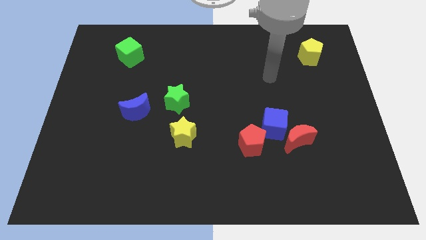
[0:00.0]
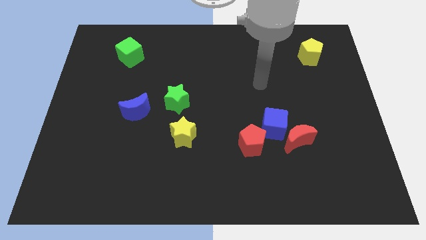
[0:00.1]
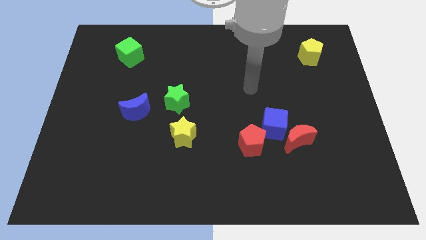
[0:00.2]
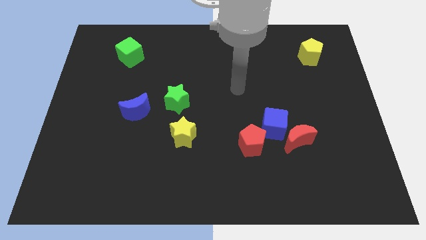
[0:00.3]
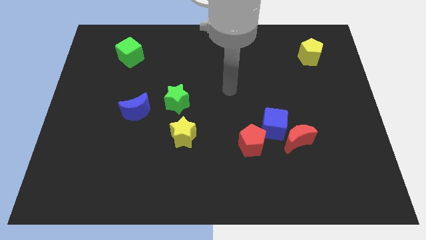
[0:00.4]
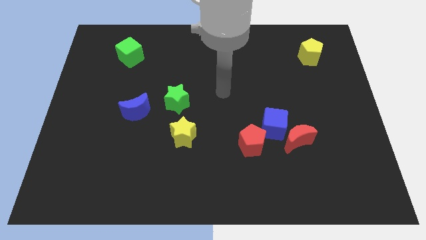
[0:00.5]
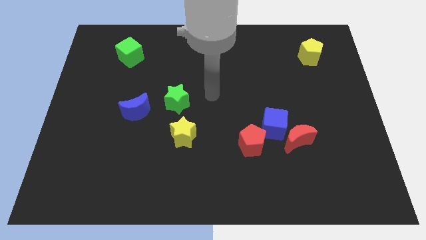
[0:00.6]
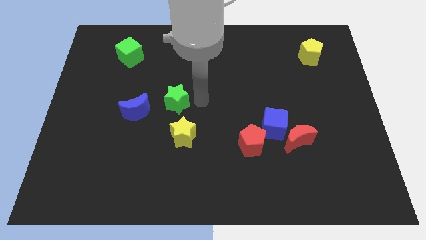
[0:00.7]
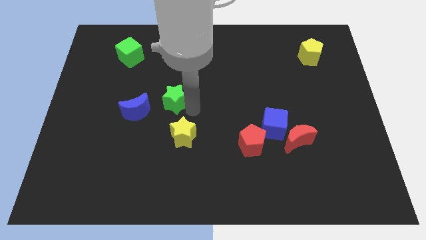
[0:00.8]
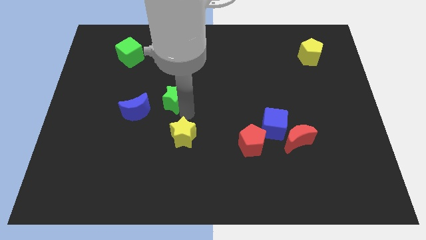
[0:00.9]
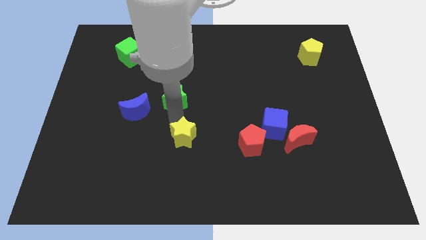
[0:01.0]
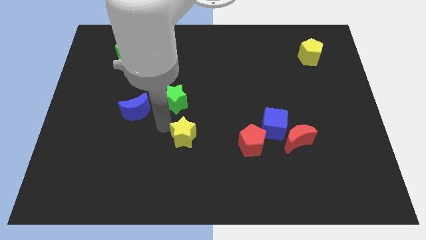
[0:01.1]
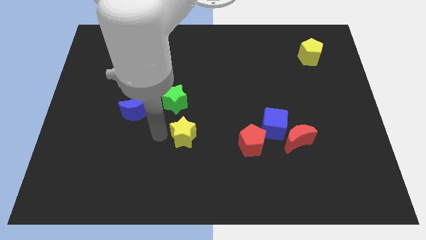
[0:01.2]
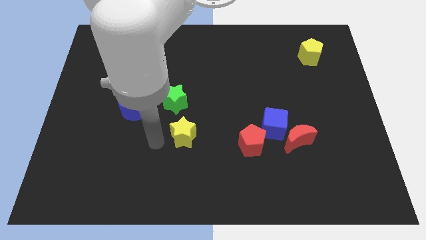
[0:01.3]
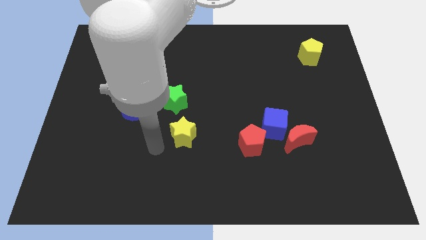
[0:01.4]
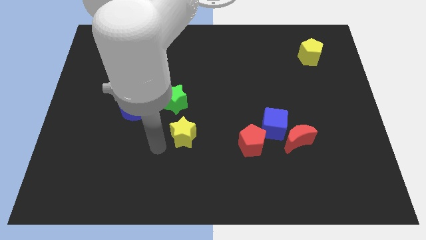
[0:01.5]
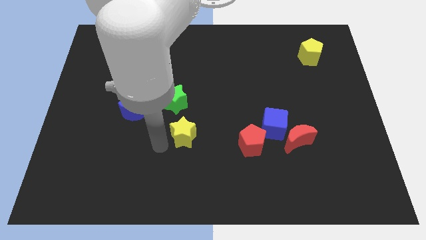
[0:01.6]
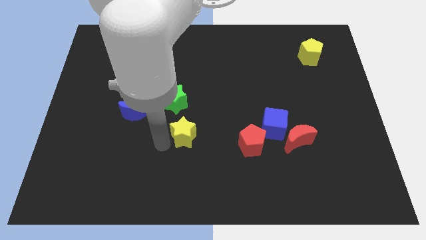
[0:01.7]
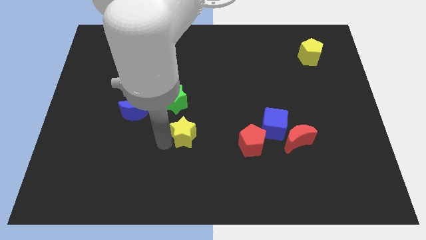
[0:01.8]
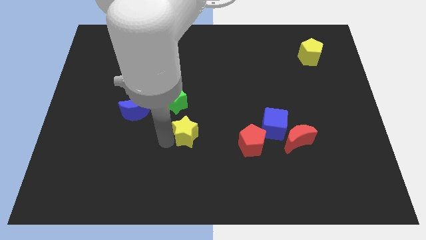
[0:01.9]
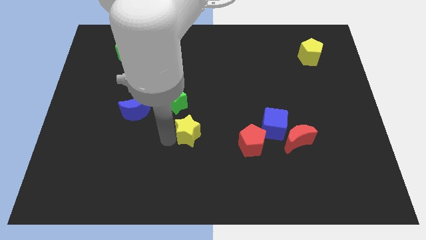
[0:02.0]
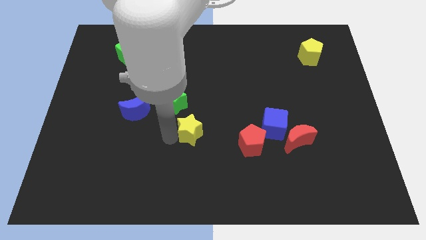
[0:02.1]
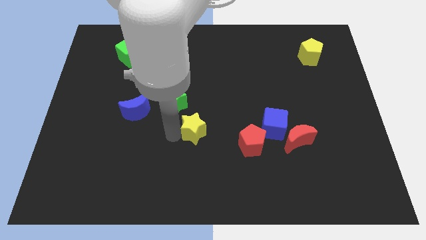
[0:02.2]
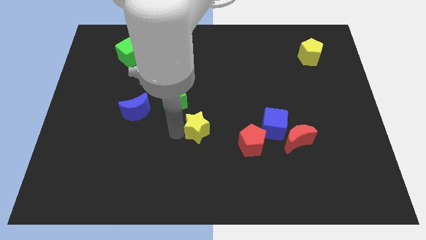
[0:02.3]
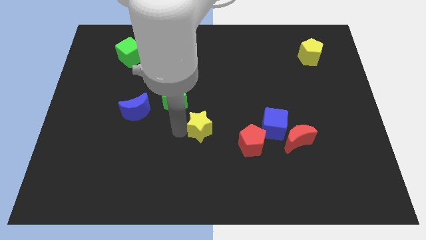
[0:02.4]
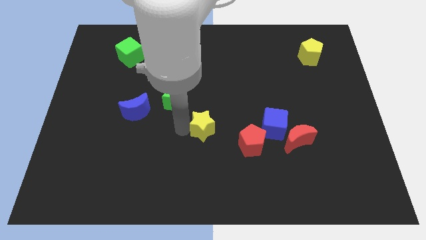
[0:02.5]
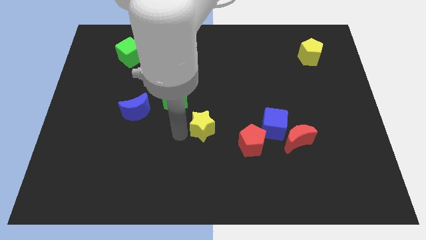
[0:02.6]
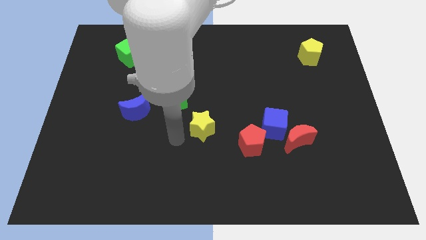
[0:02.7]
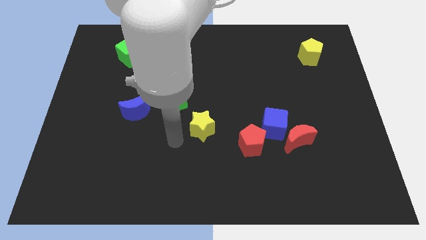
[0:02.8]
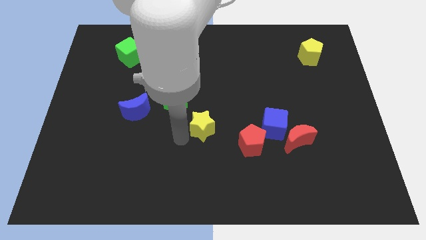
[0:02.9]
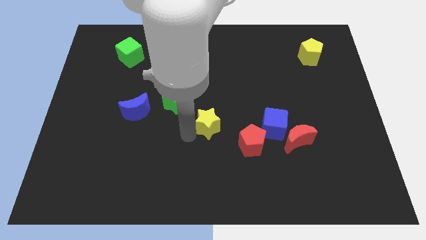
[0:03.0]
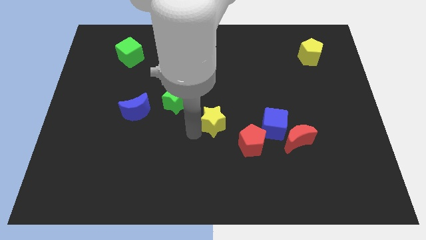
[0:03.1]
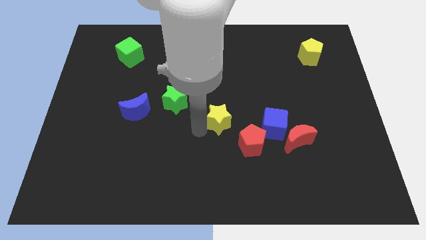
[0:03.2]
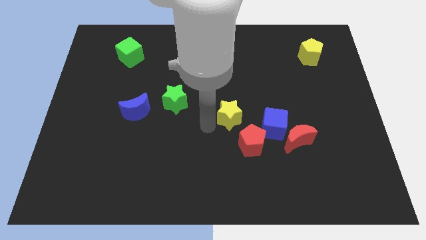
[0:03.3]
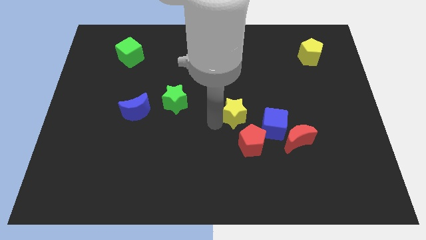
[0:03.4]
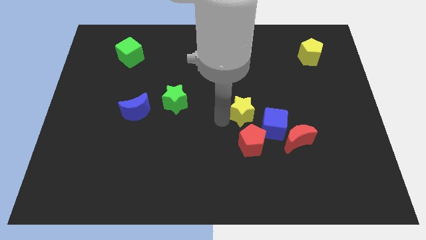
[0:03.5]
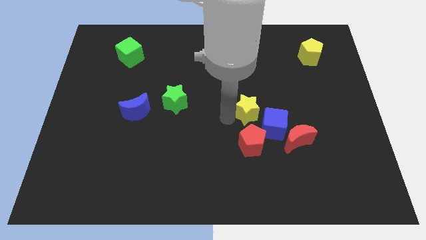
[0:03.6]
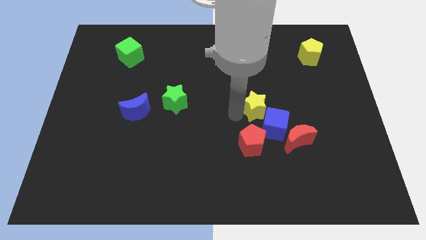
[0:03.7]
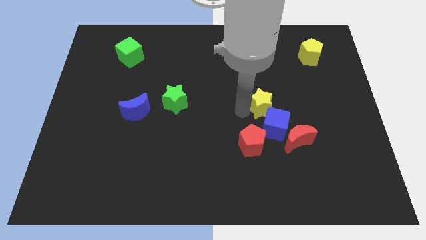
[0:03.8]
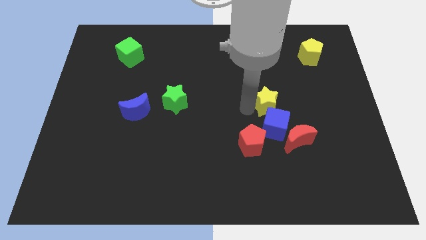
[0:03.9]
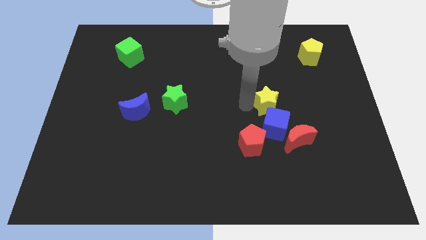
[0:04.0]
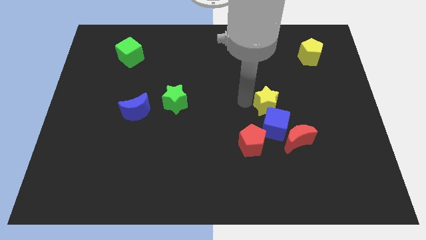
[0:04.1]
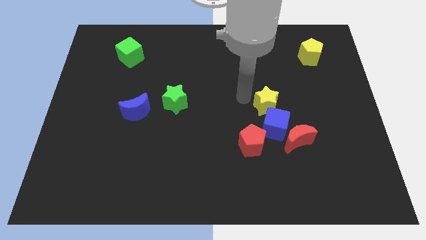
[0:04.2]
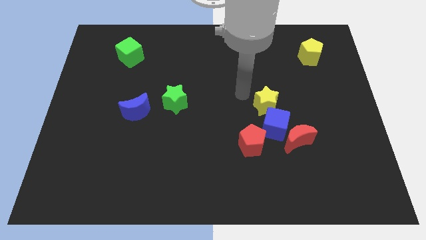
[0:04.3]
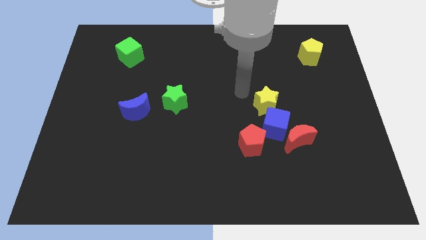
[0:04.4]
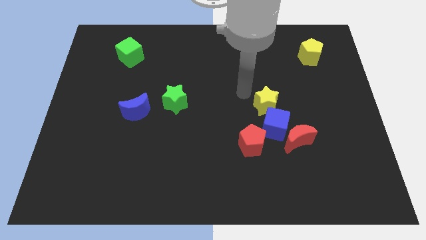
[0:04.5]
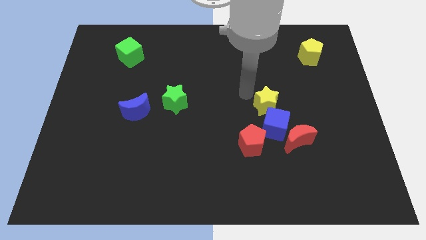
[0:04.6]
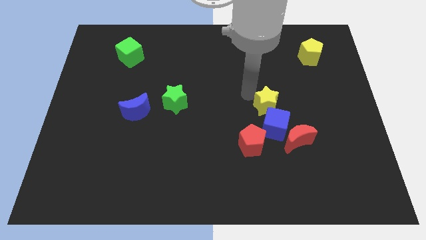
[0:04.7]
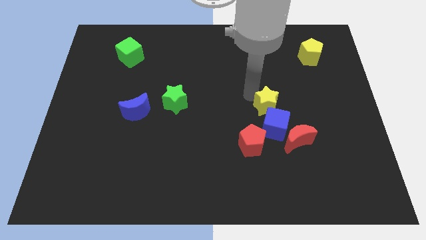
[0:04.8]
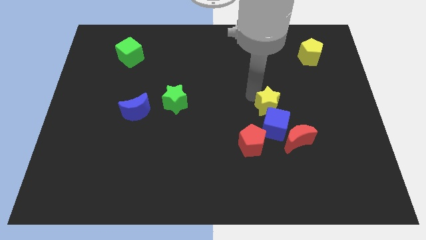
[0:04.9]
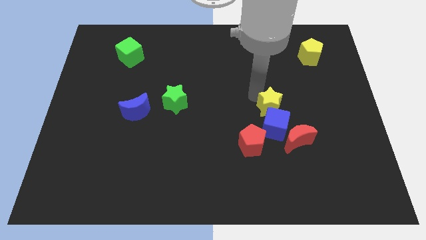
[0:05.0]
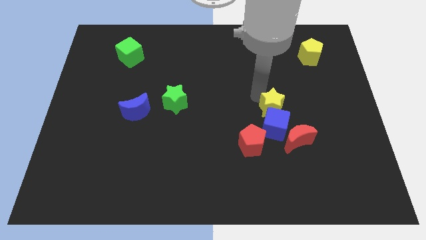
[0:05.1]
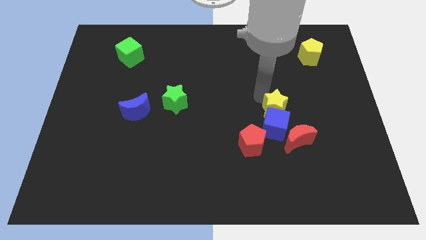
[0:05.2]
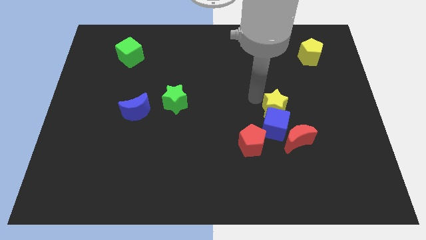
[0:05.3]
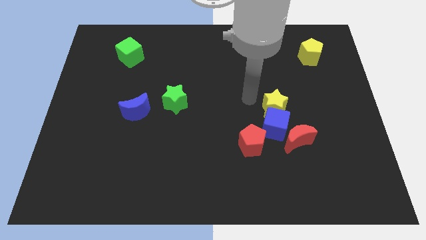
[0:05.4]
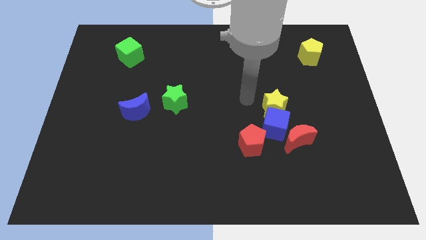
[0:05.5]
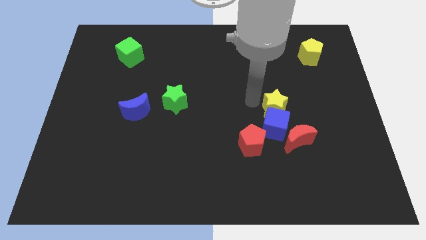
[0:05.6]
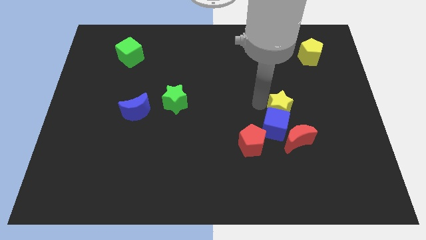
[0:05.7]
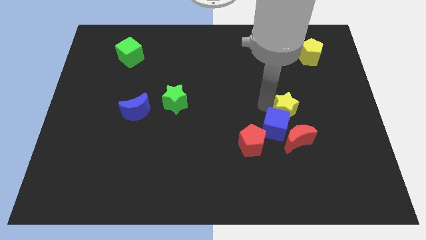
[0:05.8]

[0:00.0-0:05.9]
push the yellow star right

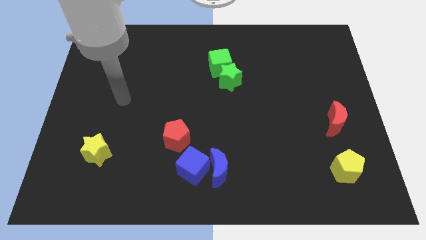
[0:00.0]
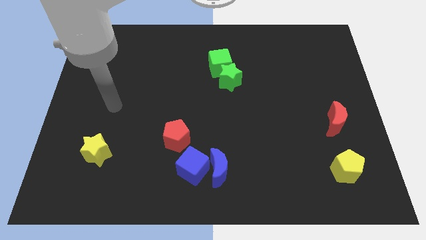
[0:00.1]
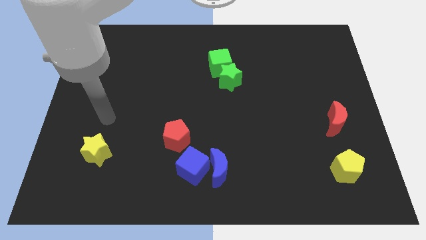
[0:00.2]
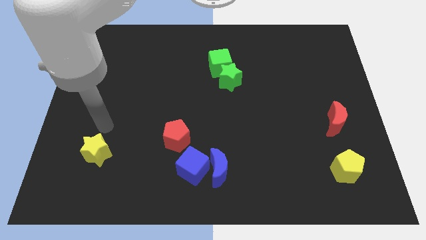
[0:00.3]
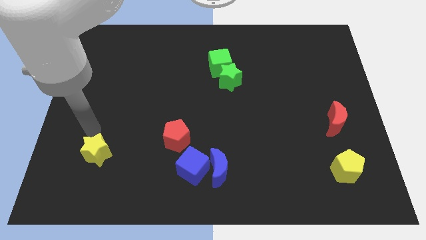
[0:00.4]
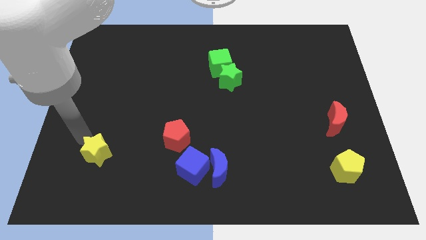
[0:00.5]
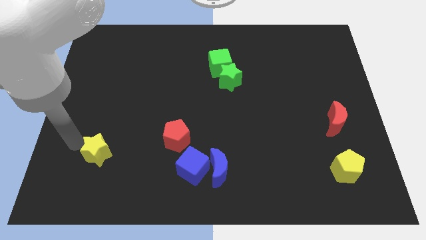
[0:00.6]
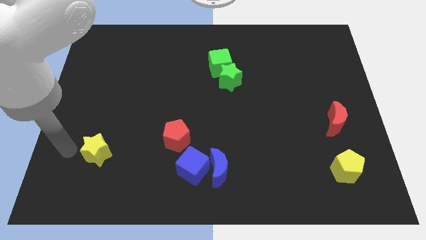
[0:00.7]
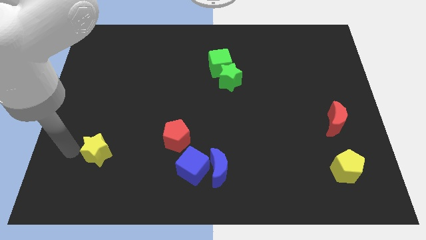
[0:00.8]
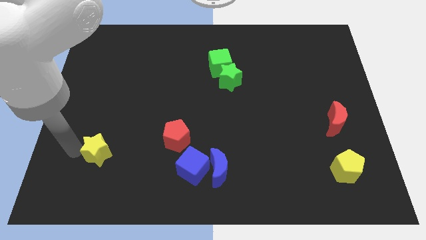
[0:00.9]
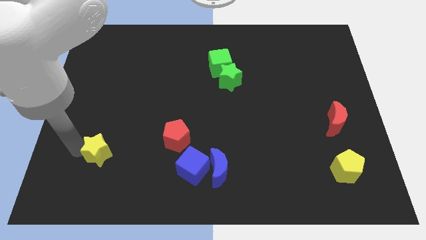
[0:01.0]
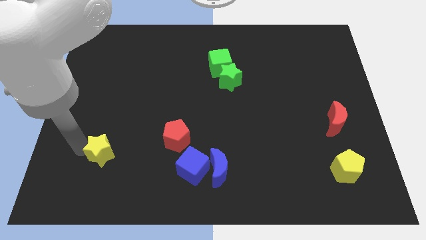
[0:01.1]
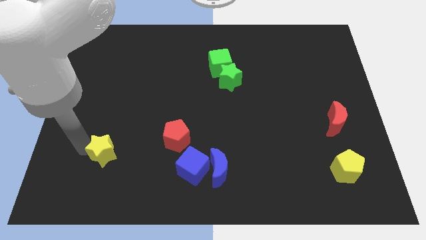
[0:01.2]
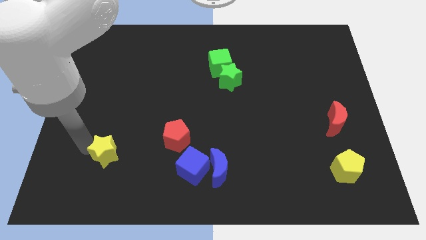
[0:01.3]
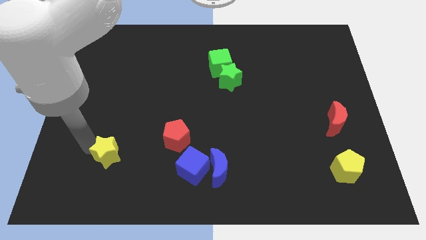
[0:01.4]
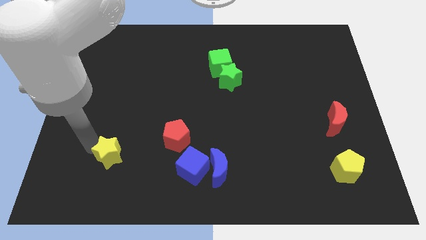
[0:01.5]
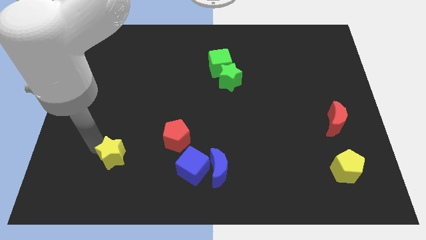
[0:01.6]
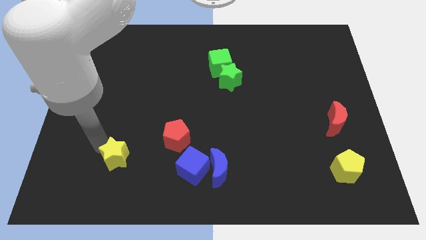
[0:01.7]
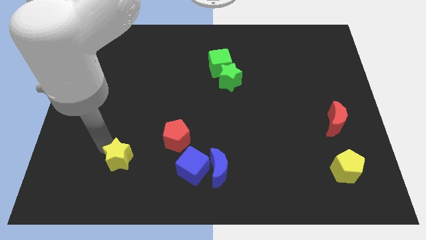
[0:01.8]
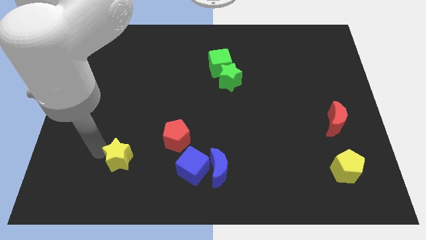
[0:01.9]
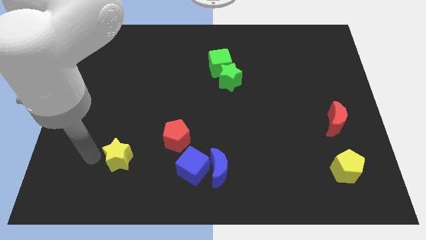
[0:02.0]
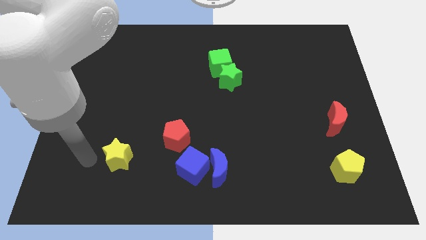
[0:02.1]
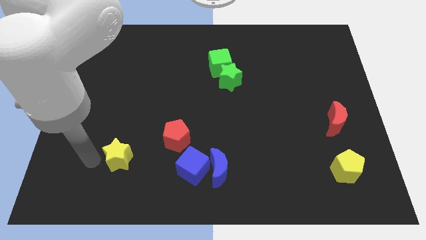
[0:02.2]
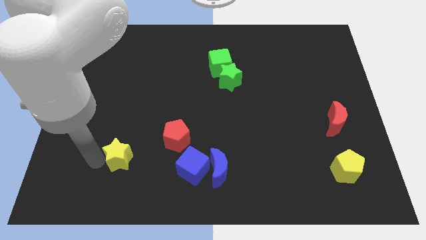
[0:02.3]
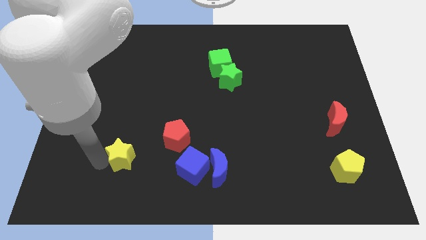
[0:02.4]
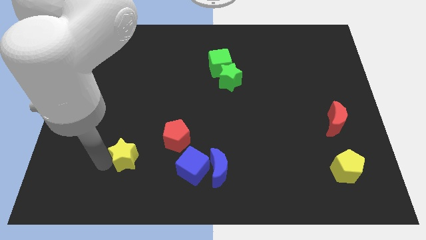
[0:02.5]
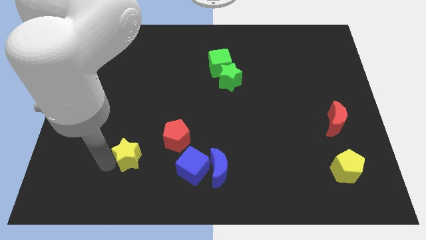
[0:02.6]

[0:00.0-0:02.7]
move the yellow star somewhat right
